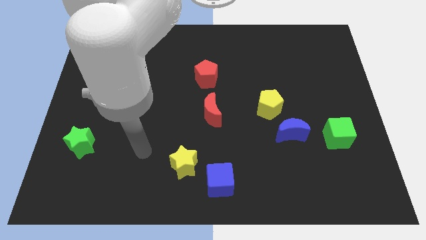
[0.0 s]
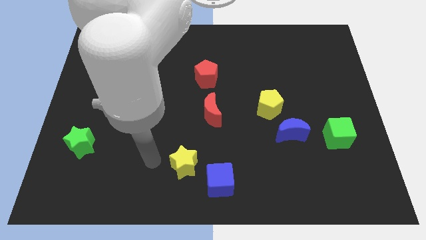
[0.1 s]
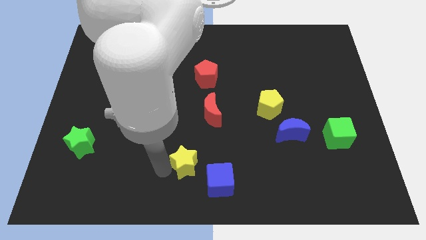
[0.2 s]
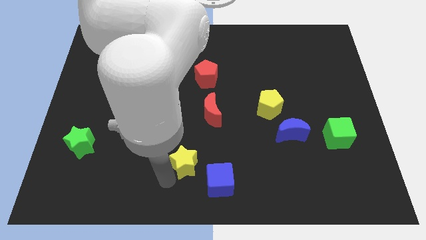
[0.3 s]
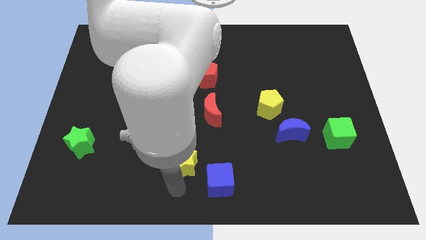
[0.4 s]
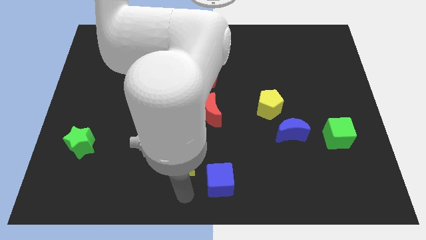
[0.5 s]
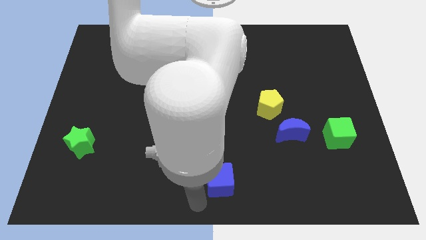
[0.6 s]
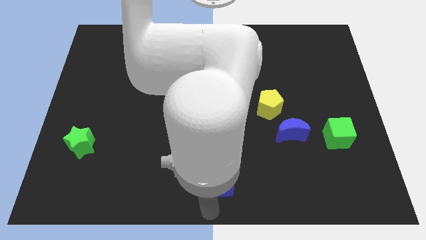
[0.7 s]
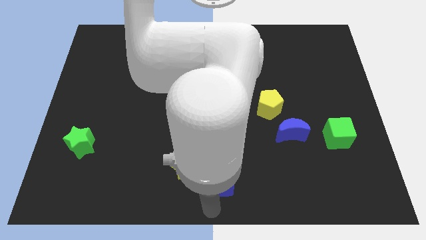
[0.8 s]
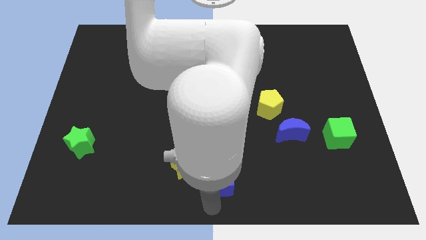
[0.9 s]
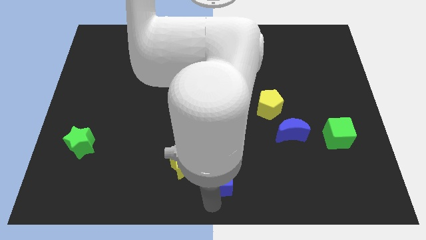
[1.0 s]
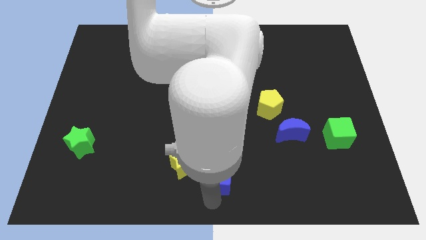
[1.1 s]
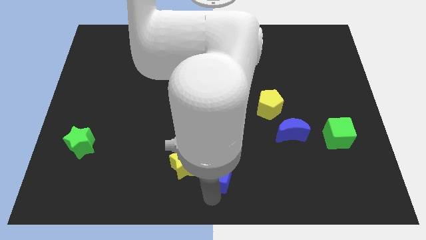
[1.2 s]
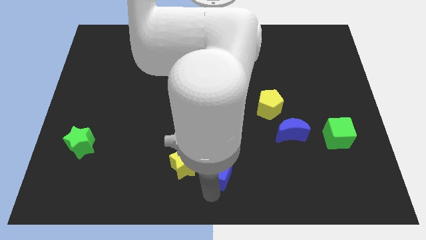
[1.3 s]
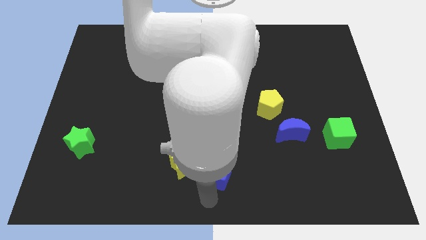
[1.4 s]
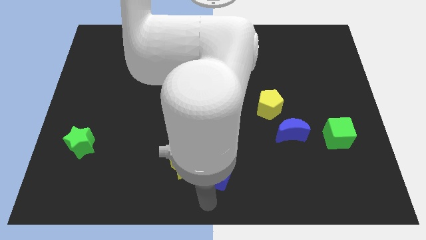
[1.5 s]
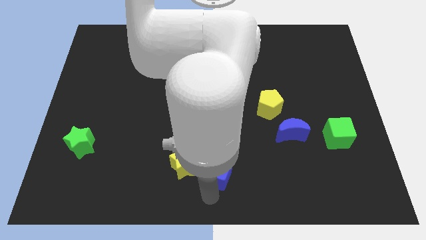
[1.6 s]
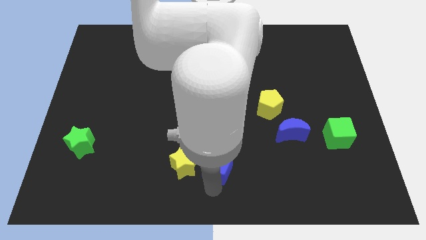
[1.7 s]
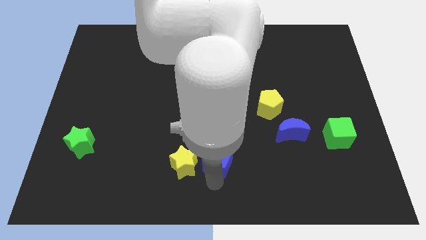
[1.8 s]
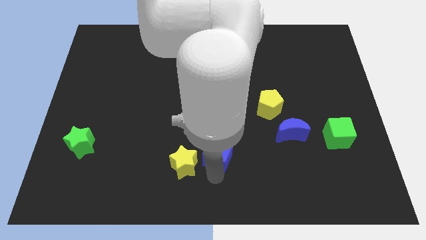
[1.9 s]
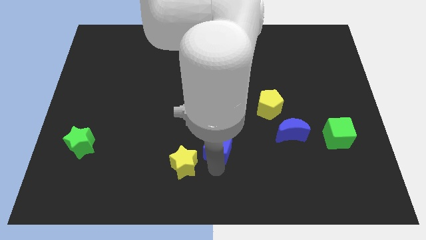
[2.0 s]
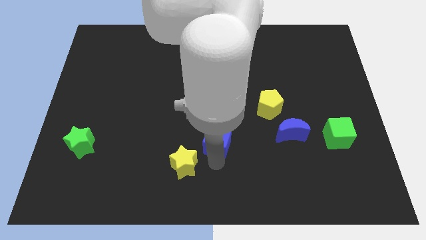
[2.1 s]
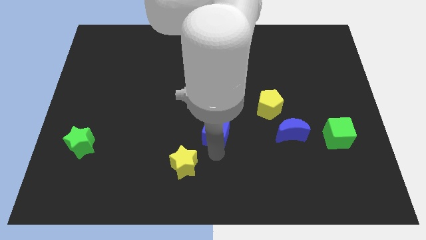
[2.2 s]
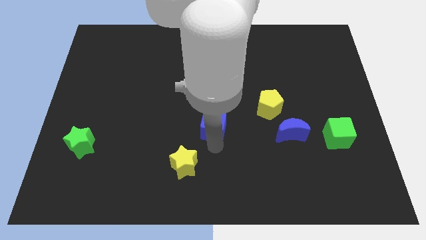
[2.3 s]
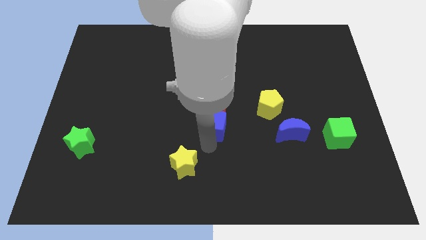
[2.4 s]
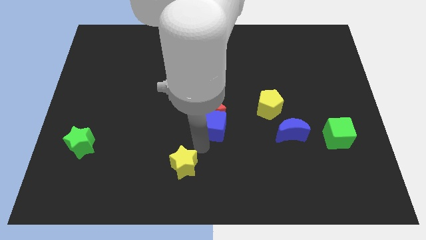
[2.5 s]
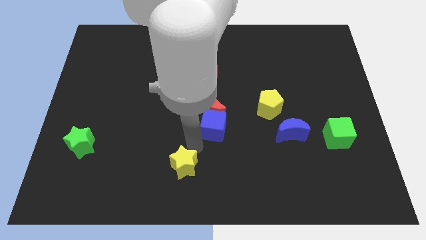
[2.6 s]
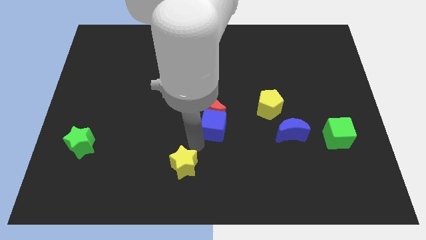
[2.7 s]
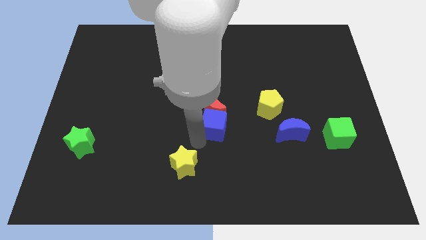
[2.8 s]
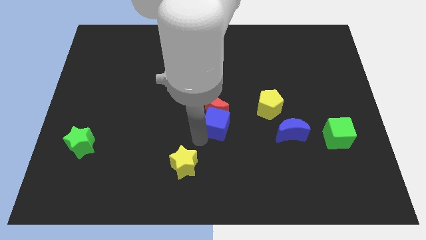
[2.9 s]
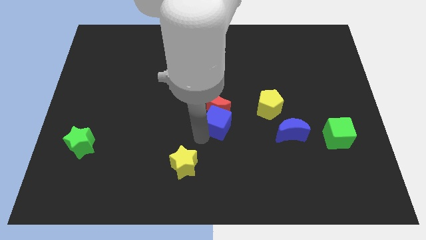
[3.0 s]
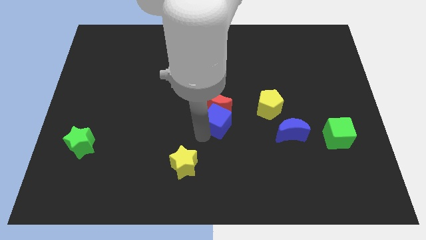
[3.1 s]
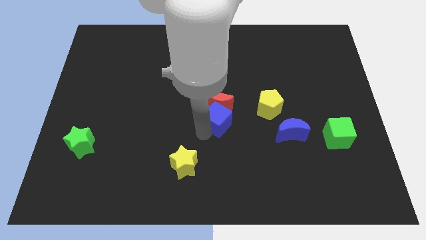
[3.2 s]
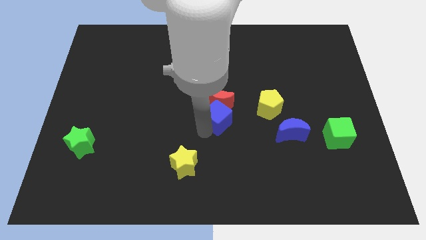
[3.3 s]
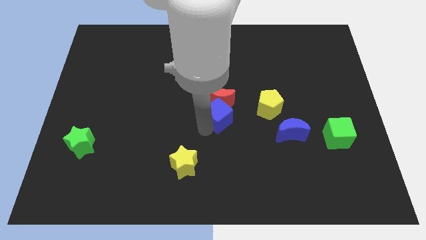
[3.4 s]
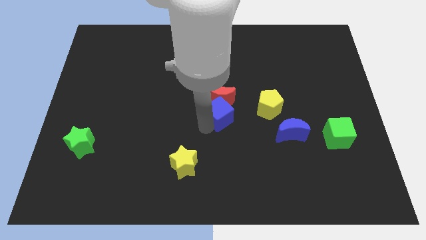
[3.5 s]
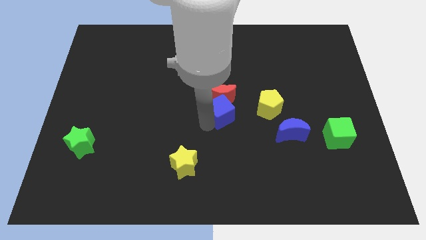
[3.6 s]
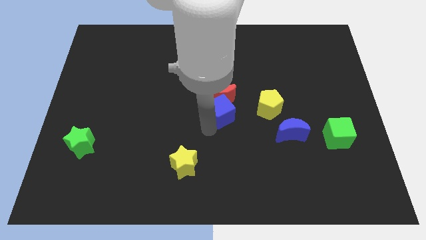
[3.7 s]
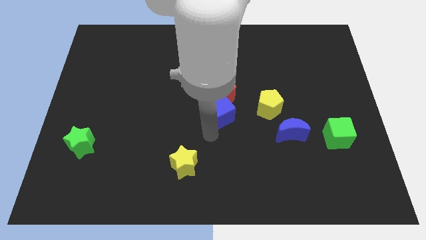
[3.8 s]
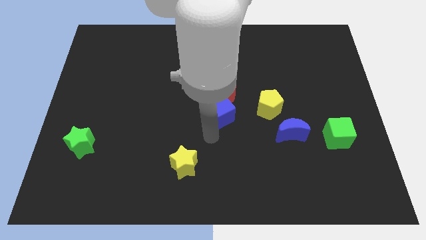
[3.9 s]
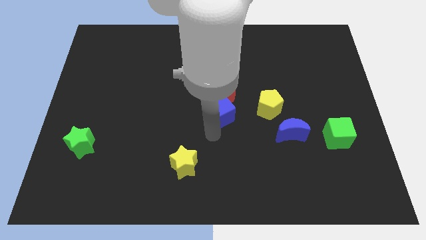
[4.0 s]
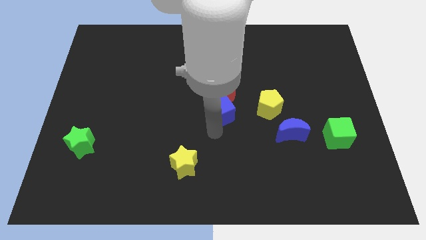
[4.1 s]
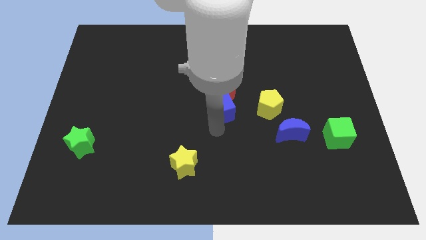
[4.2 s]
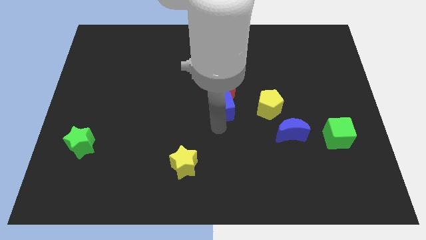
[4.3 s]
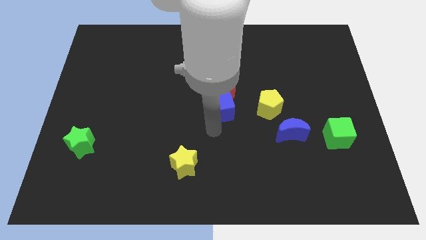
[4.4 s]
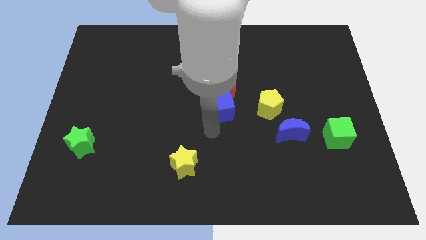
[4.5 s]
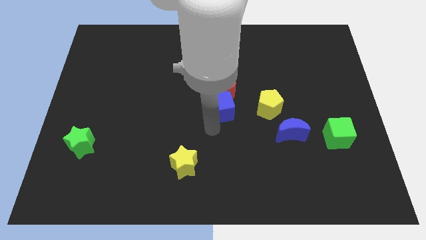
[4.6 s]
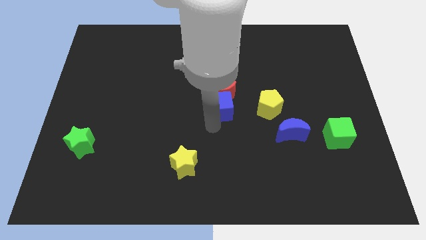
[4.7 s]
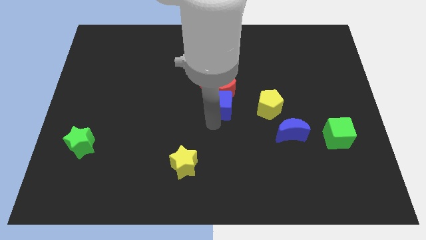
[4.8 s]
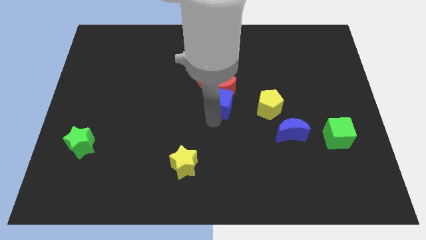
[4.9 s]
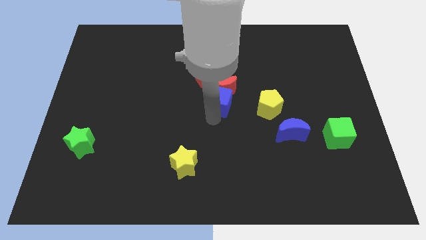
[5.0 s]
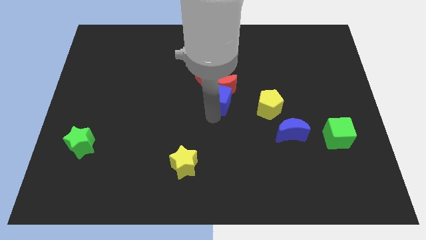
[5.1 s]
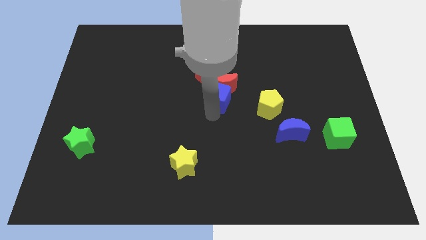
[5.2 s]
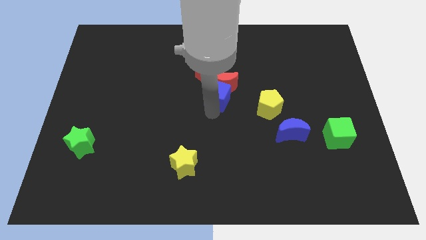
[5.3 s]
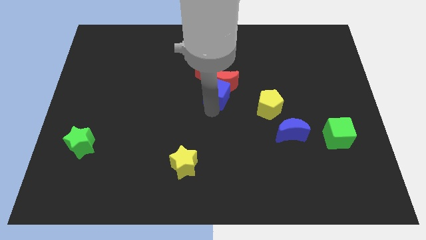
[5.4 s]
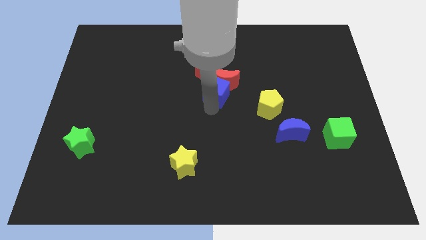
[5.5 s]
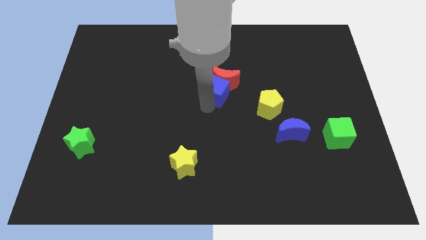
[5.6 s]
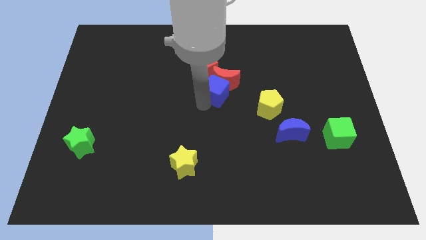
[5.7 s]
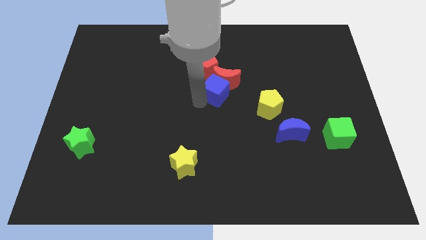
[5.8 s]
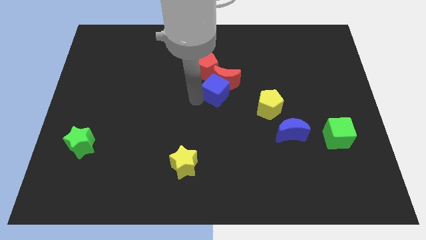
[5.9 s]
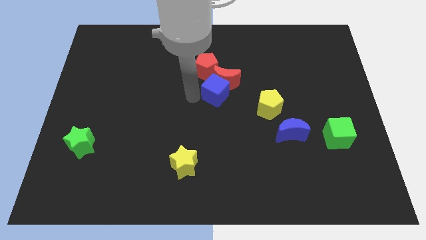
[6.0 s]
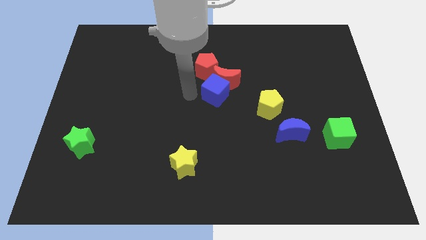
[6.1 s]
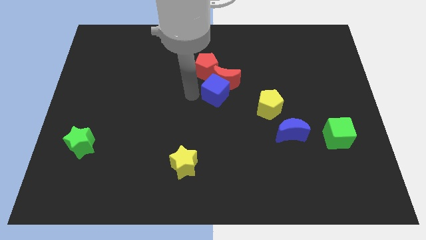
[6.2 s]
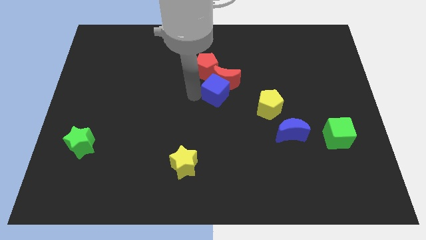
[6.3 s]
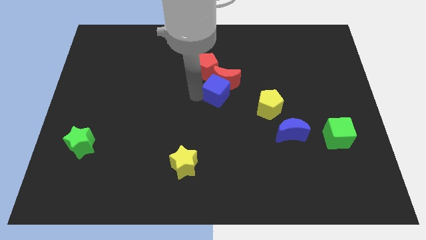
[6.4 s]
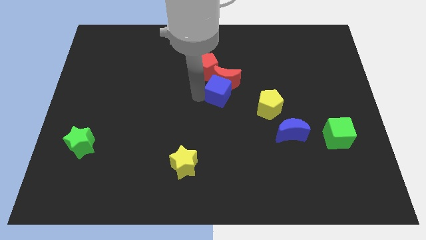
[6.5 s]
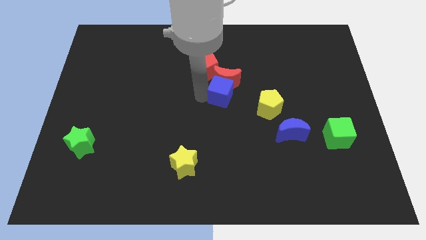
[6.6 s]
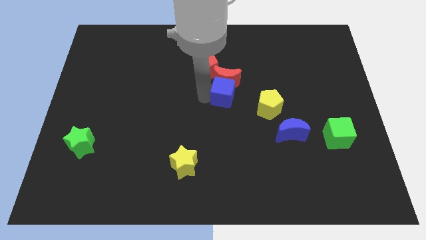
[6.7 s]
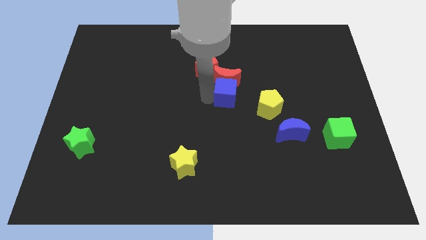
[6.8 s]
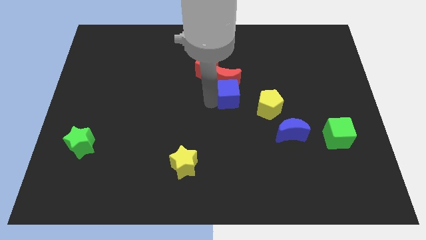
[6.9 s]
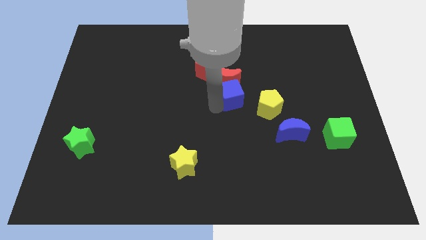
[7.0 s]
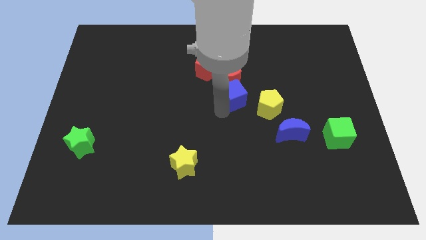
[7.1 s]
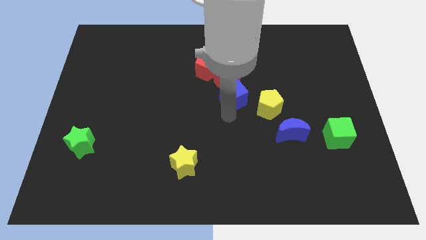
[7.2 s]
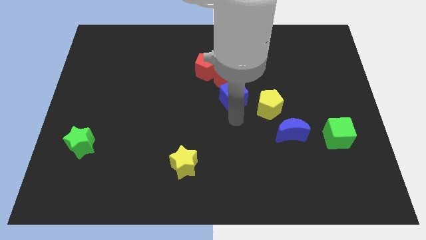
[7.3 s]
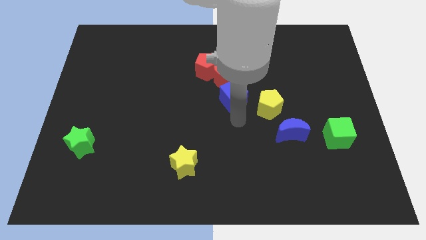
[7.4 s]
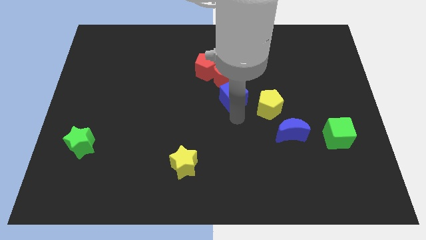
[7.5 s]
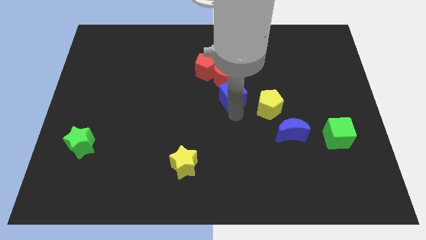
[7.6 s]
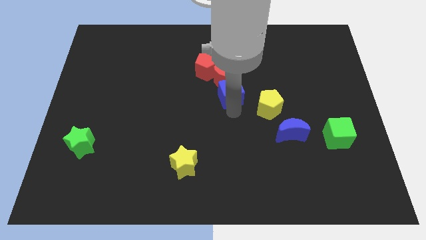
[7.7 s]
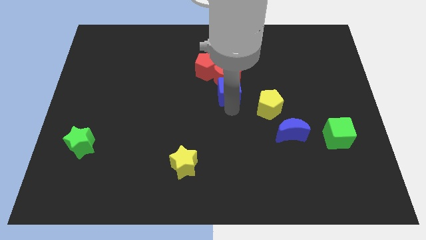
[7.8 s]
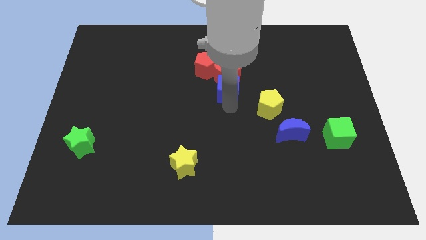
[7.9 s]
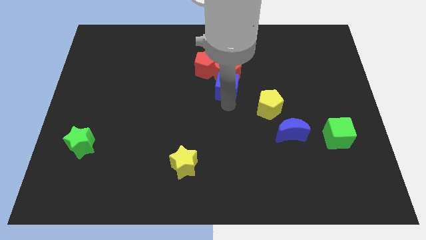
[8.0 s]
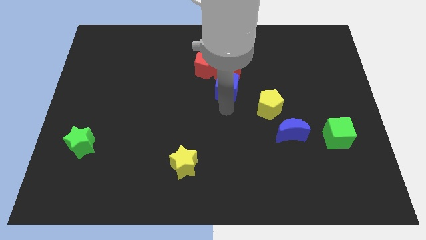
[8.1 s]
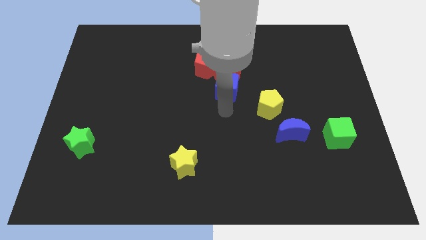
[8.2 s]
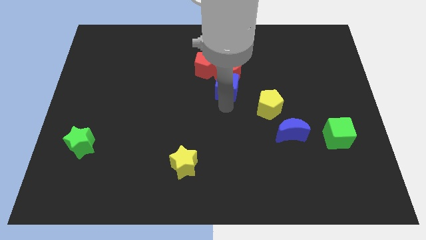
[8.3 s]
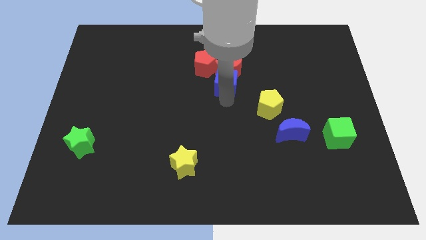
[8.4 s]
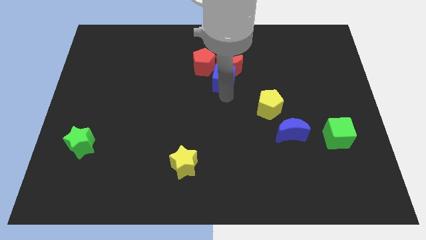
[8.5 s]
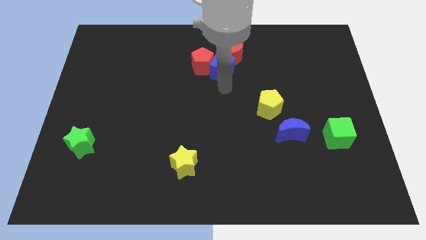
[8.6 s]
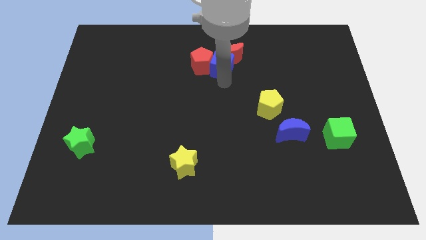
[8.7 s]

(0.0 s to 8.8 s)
move the blue cube to the top right of the red pentagon
